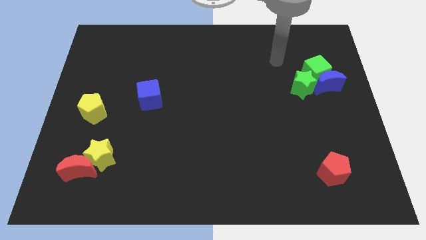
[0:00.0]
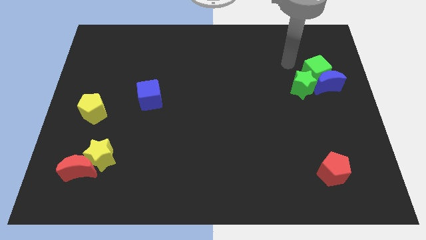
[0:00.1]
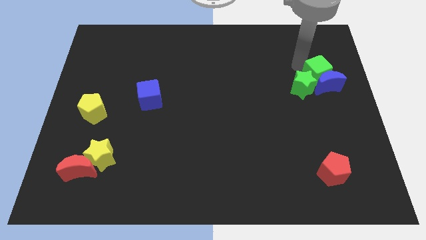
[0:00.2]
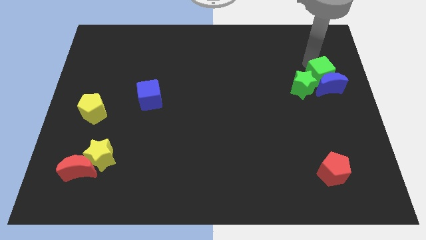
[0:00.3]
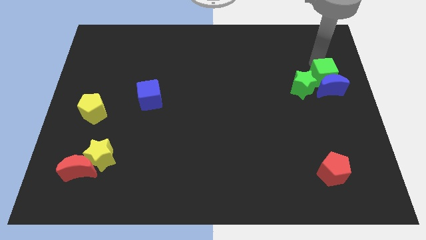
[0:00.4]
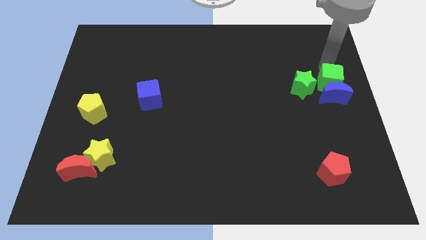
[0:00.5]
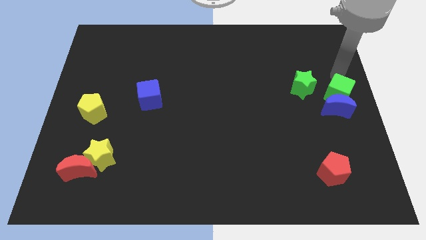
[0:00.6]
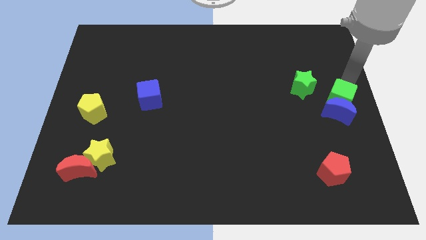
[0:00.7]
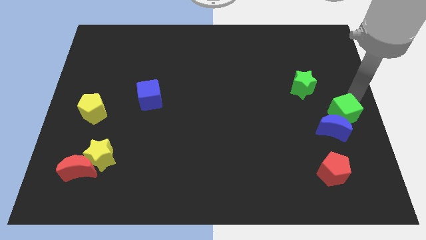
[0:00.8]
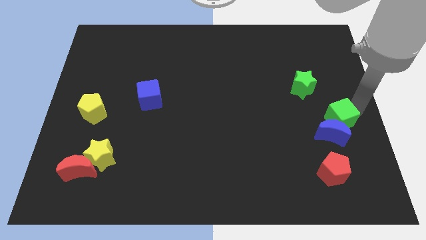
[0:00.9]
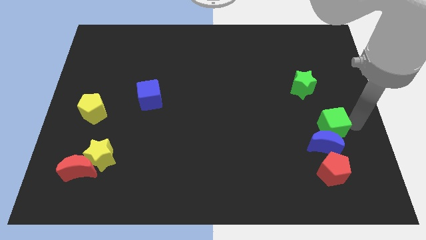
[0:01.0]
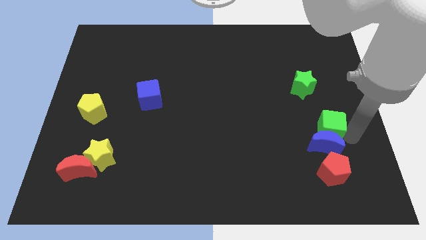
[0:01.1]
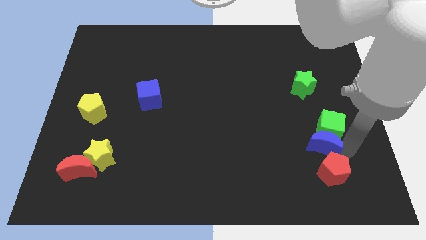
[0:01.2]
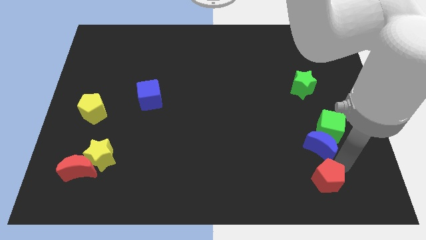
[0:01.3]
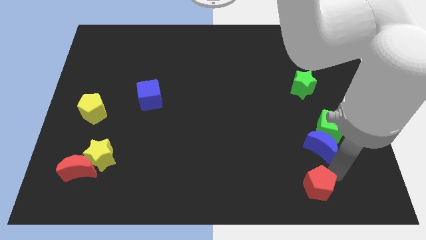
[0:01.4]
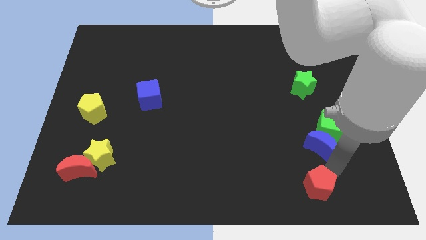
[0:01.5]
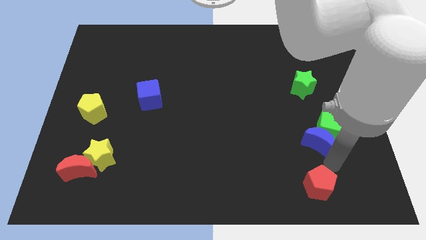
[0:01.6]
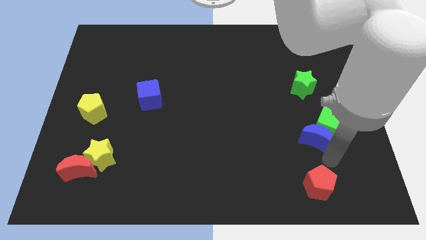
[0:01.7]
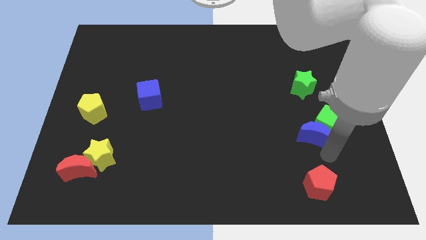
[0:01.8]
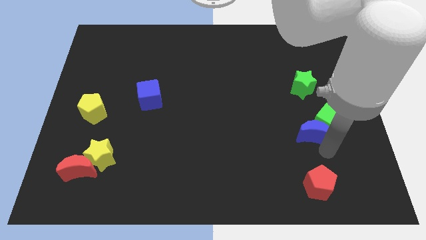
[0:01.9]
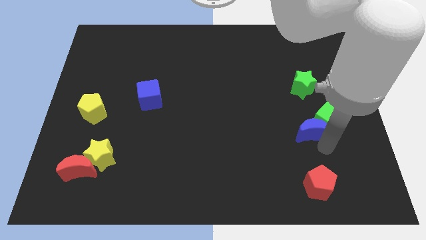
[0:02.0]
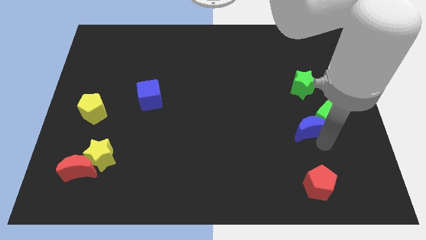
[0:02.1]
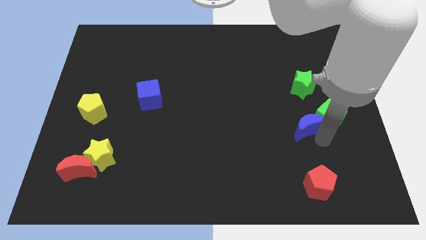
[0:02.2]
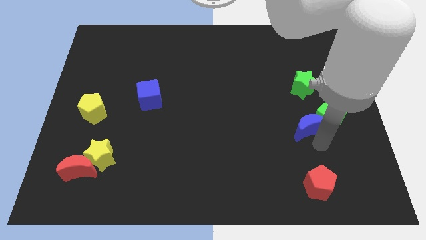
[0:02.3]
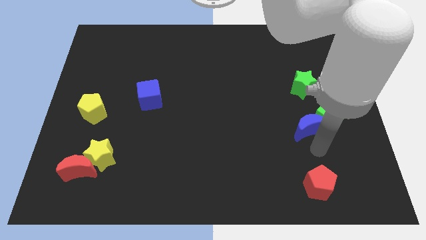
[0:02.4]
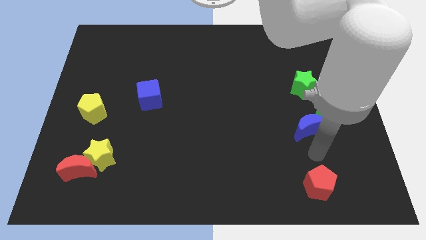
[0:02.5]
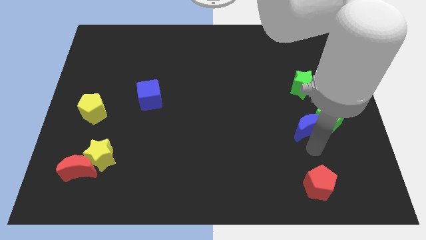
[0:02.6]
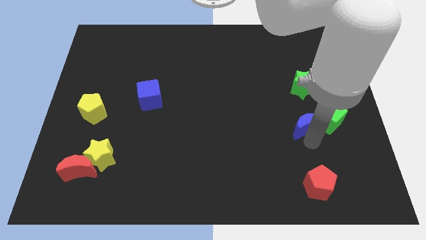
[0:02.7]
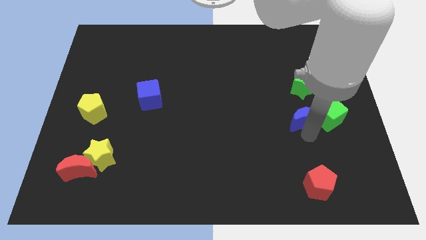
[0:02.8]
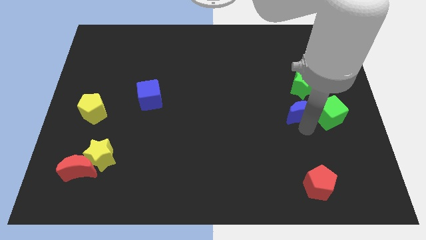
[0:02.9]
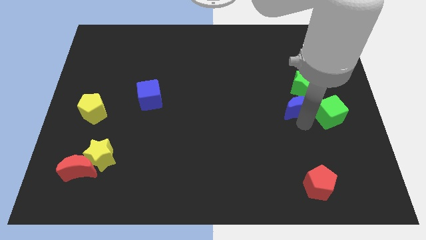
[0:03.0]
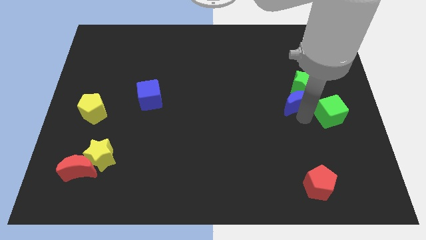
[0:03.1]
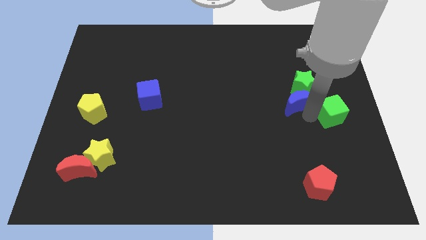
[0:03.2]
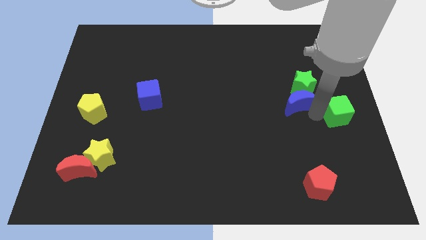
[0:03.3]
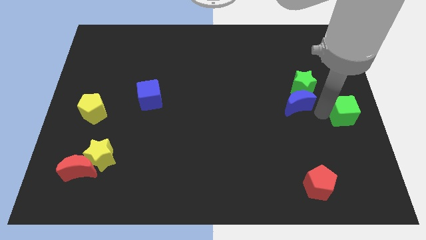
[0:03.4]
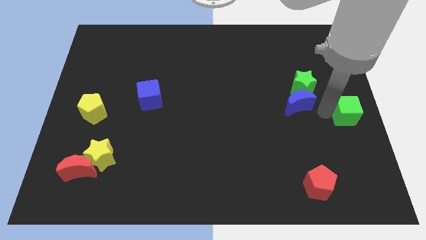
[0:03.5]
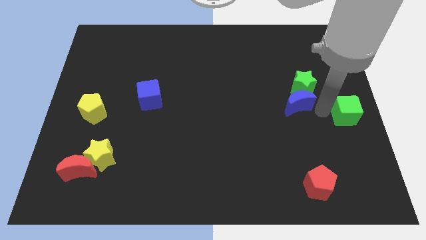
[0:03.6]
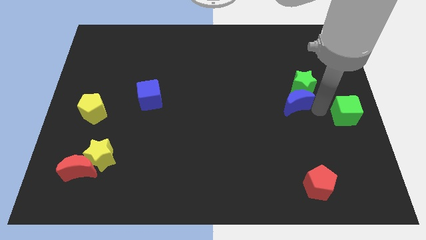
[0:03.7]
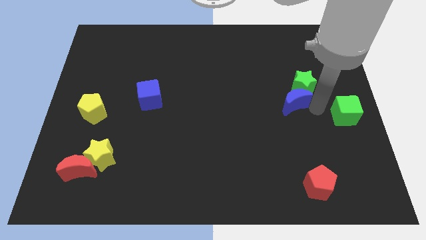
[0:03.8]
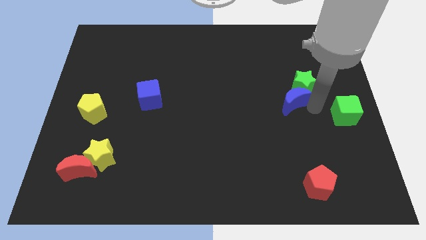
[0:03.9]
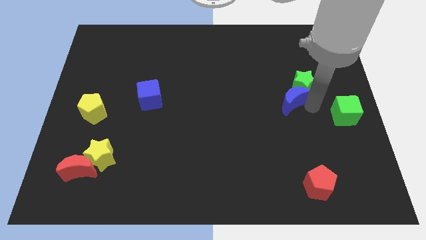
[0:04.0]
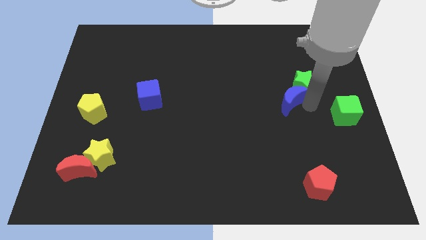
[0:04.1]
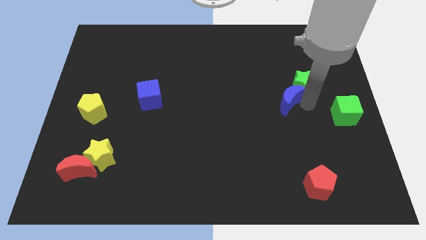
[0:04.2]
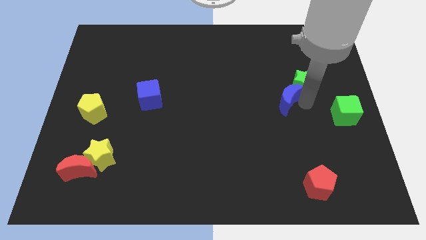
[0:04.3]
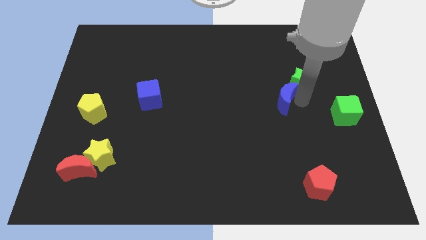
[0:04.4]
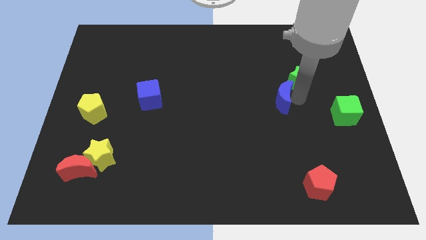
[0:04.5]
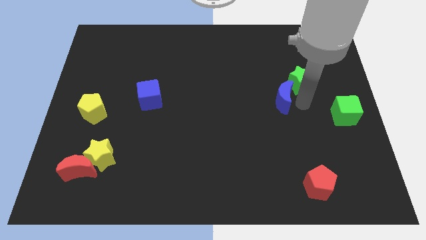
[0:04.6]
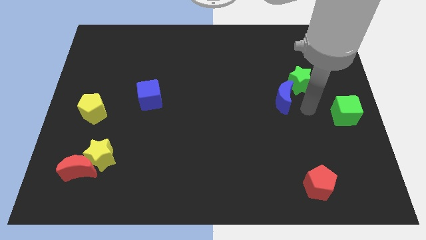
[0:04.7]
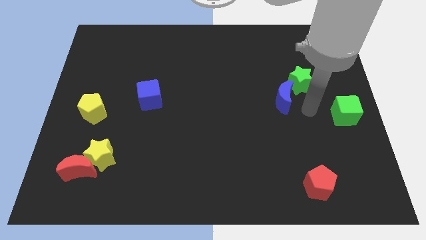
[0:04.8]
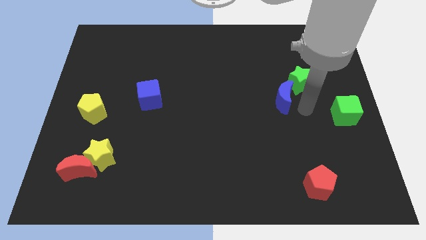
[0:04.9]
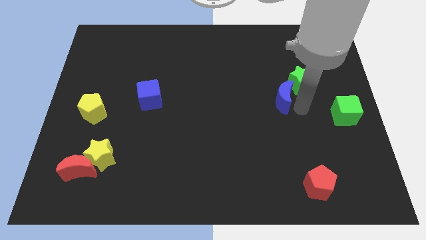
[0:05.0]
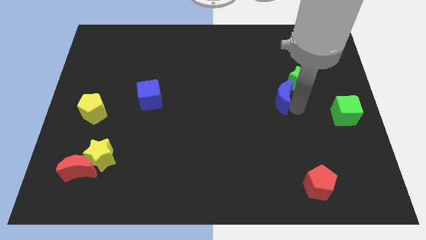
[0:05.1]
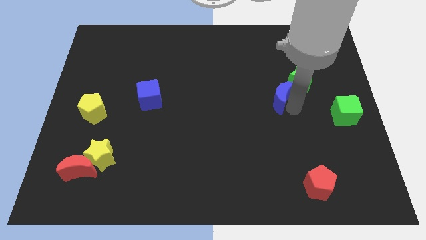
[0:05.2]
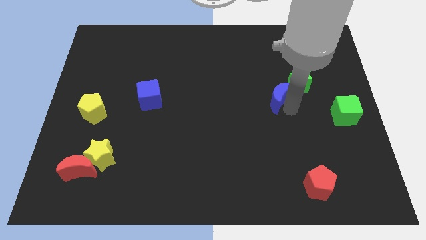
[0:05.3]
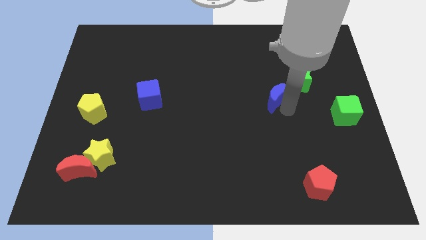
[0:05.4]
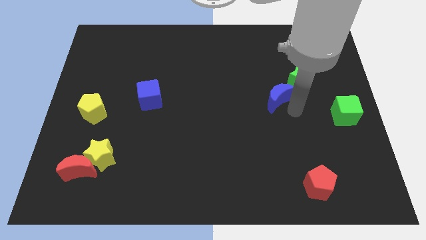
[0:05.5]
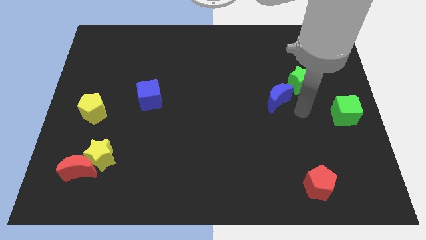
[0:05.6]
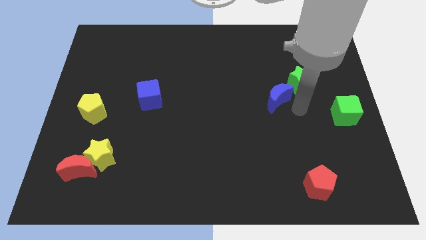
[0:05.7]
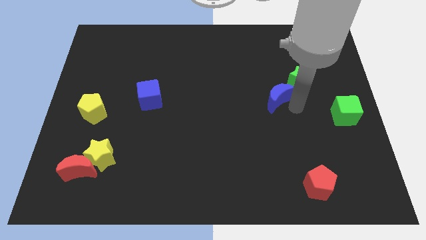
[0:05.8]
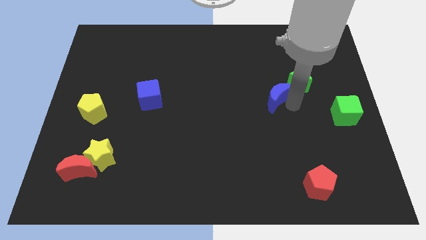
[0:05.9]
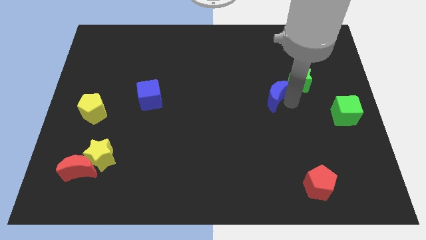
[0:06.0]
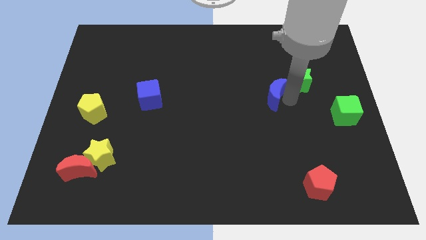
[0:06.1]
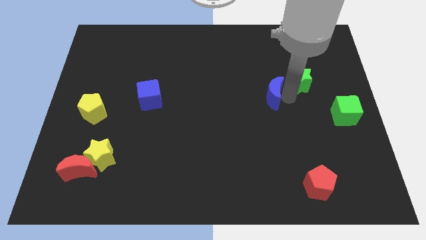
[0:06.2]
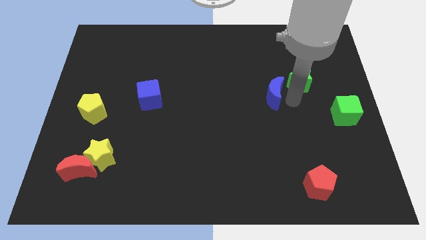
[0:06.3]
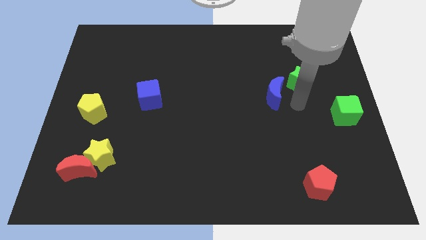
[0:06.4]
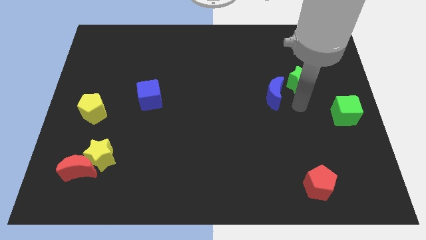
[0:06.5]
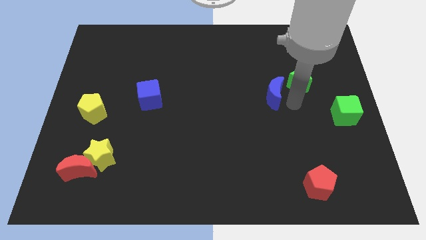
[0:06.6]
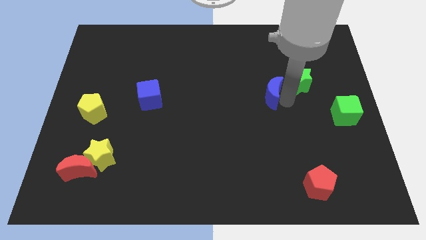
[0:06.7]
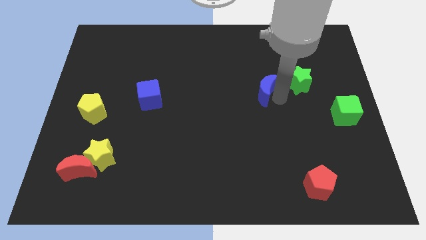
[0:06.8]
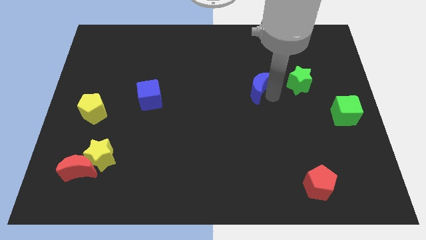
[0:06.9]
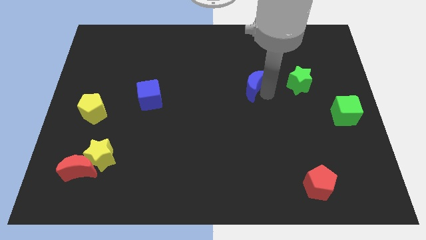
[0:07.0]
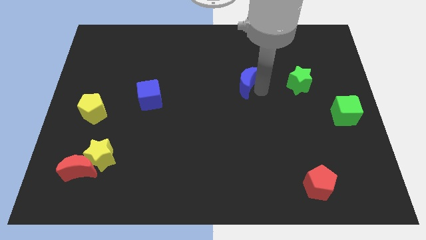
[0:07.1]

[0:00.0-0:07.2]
push the blue moon to the left

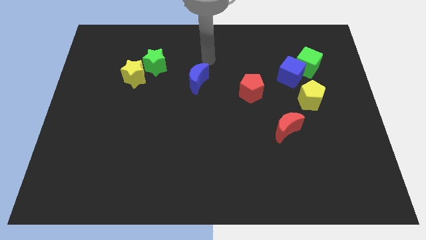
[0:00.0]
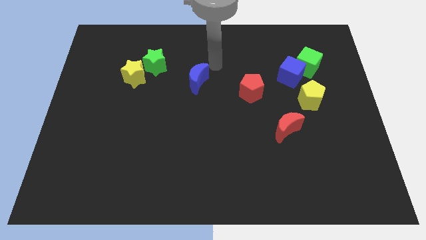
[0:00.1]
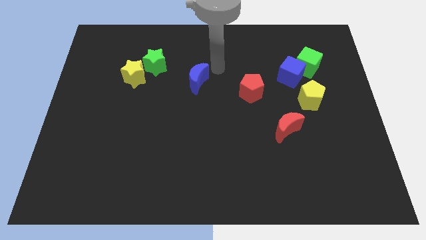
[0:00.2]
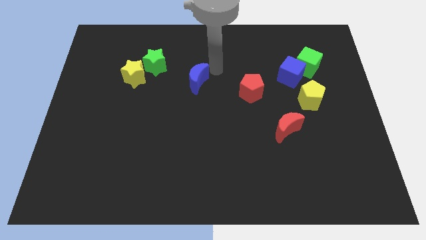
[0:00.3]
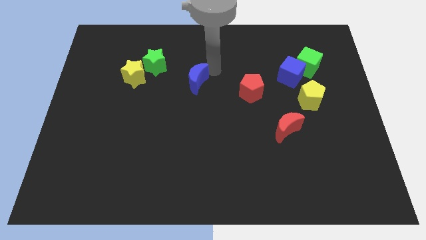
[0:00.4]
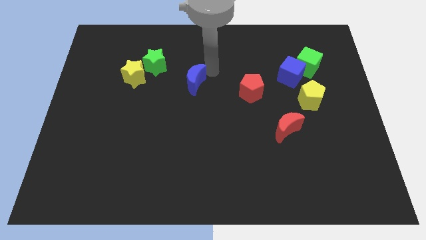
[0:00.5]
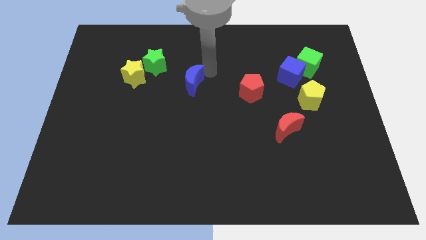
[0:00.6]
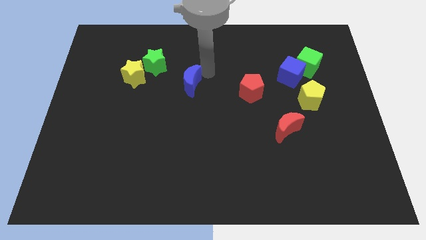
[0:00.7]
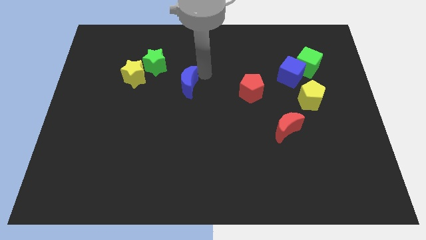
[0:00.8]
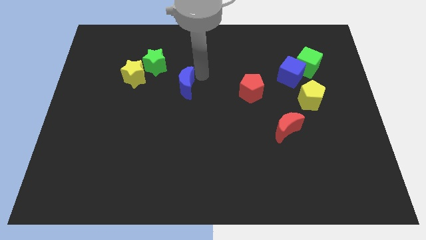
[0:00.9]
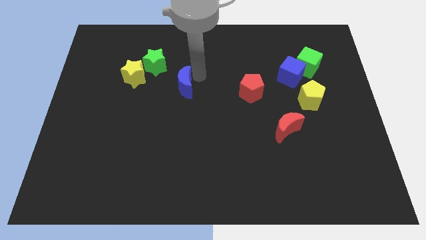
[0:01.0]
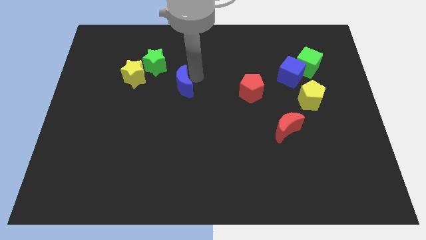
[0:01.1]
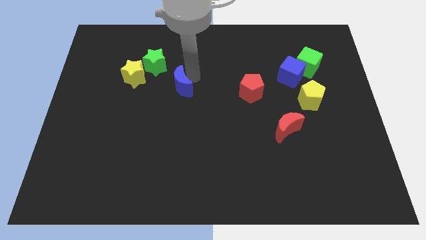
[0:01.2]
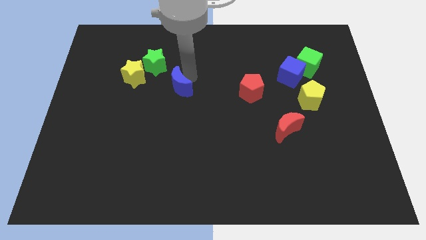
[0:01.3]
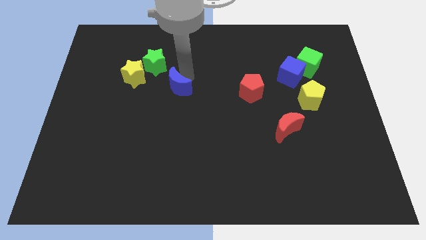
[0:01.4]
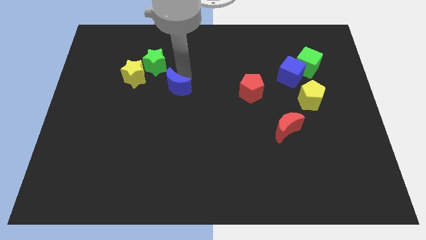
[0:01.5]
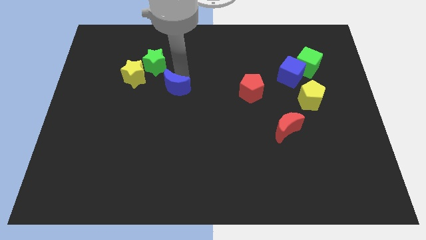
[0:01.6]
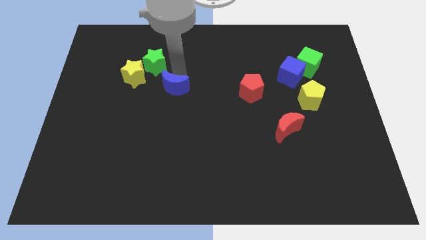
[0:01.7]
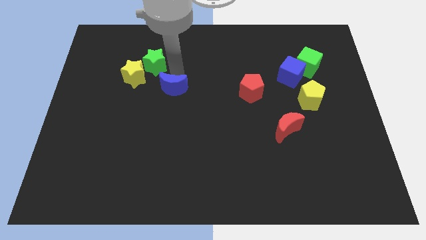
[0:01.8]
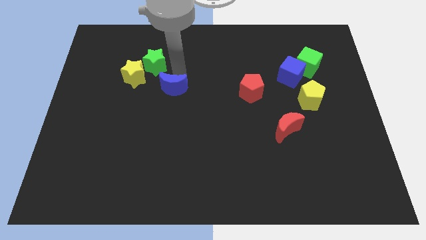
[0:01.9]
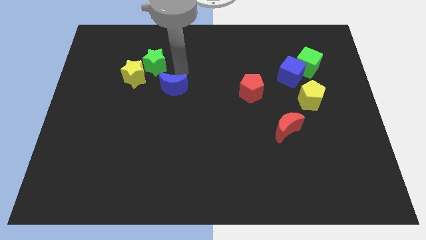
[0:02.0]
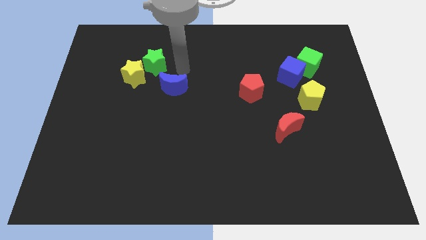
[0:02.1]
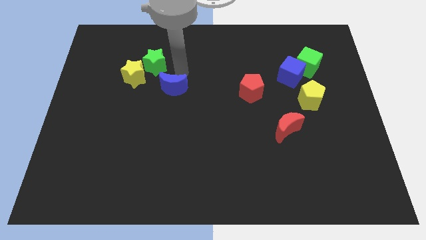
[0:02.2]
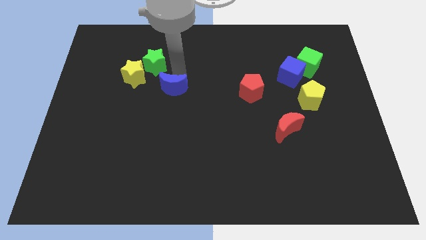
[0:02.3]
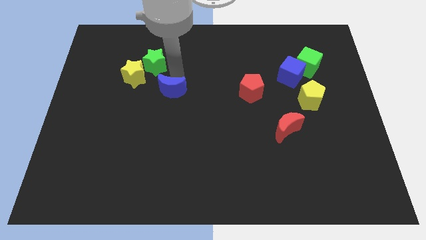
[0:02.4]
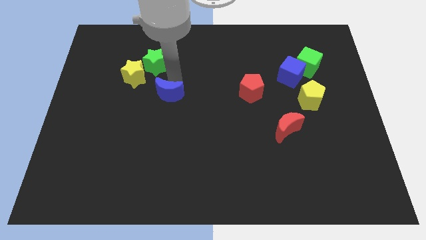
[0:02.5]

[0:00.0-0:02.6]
push the blue moon a little bit diagonally down and to the left
